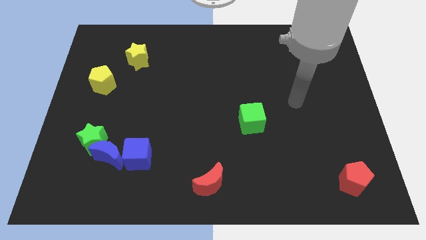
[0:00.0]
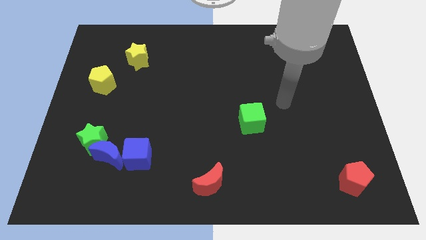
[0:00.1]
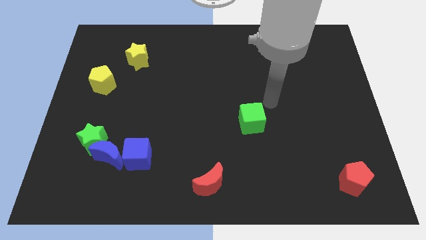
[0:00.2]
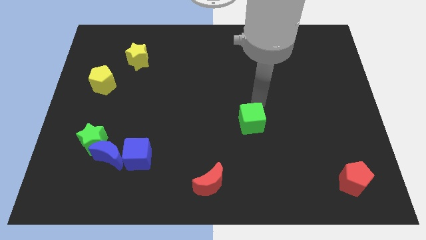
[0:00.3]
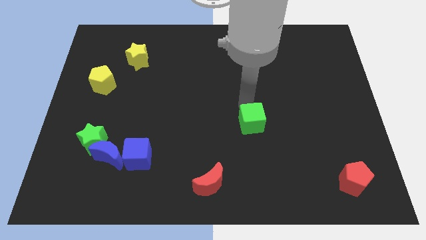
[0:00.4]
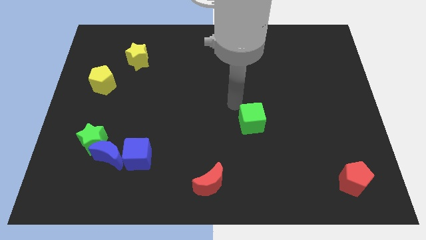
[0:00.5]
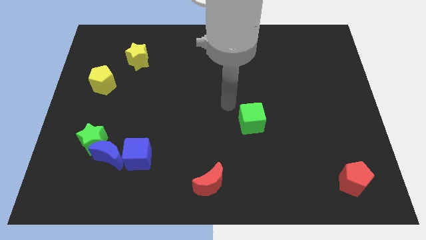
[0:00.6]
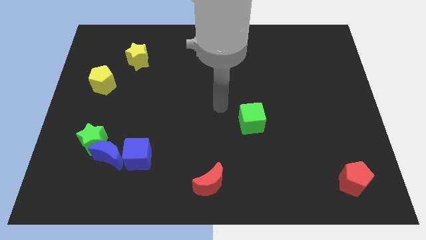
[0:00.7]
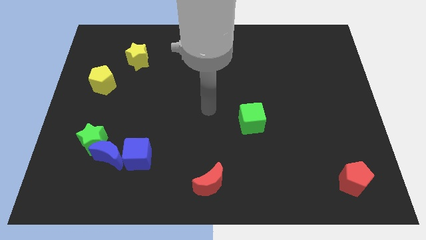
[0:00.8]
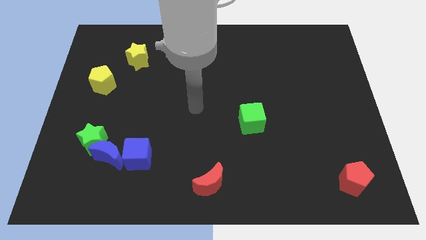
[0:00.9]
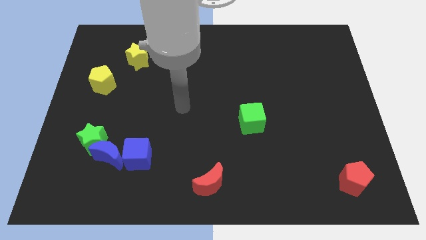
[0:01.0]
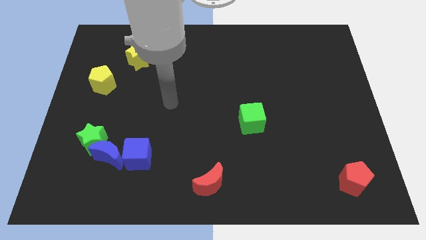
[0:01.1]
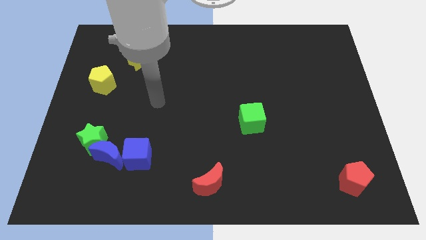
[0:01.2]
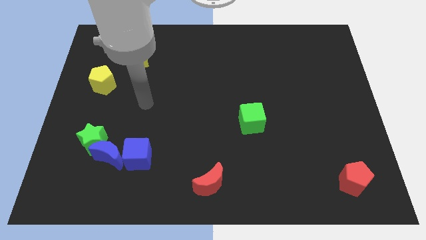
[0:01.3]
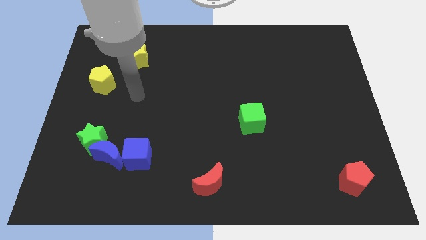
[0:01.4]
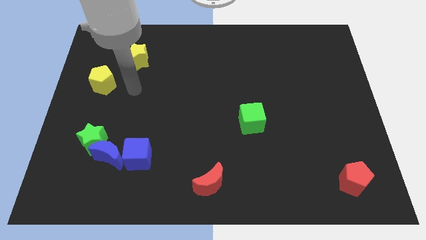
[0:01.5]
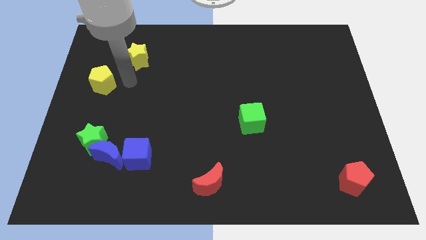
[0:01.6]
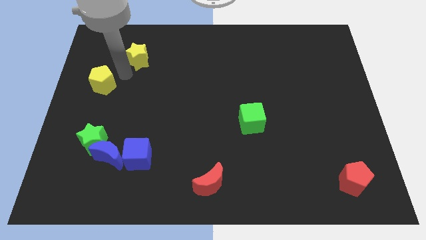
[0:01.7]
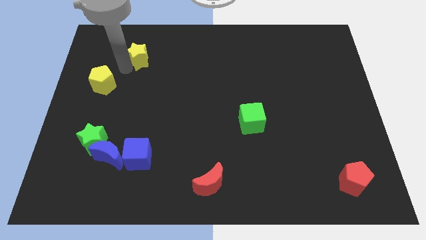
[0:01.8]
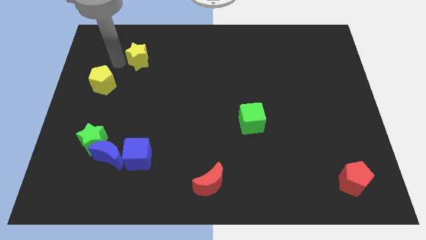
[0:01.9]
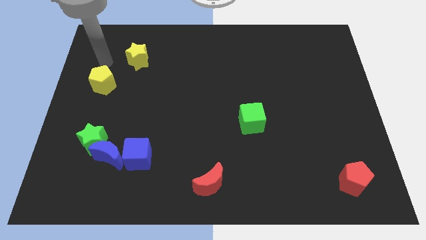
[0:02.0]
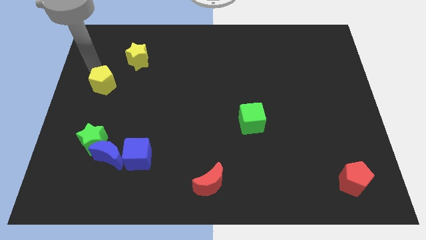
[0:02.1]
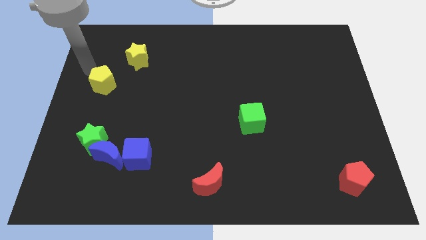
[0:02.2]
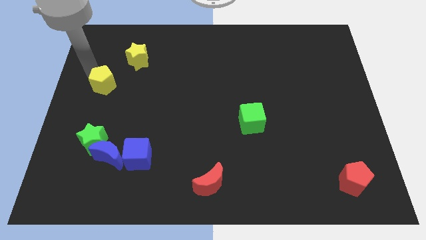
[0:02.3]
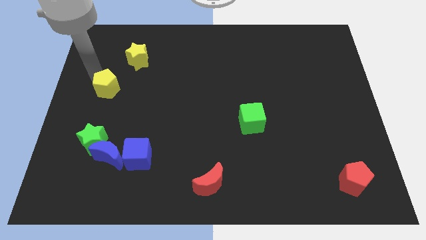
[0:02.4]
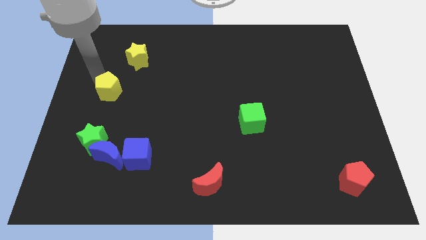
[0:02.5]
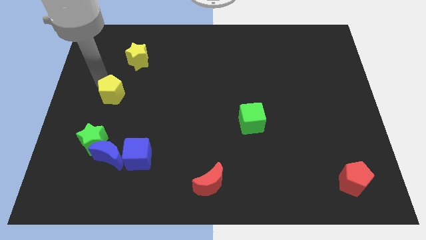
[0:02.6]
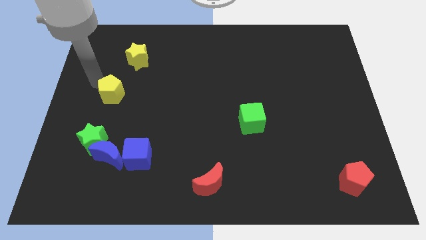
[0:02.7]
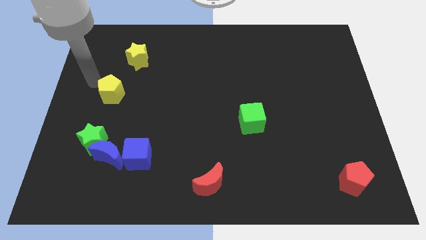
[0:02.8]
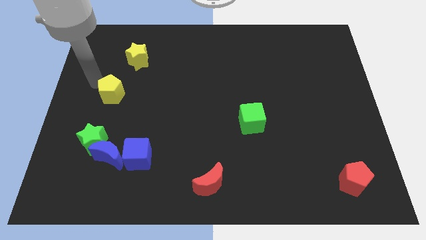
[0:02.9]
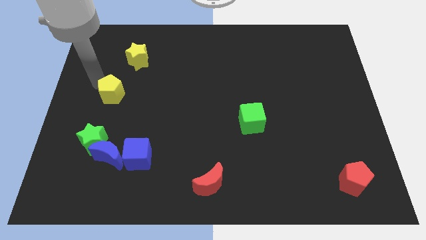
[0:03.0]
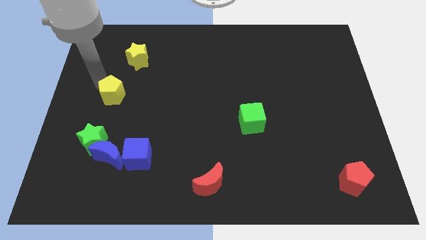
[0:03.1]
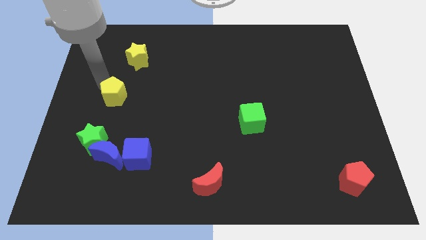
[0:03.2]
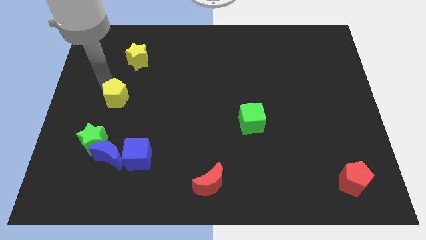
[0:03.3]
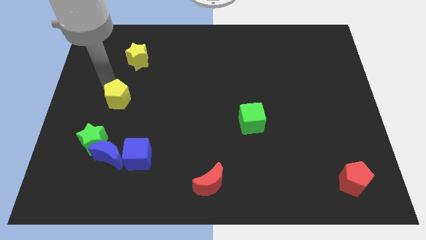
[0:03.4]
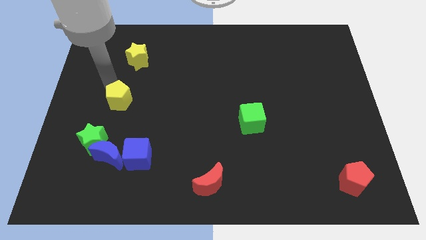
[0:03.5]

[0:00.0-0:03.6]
move the yellow pentagon somewhat downwards and right

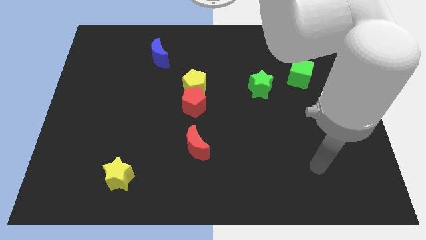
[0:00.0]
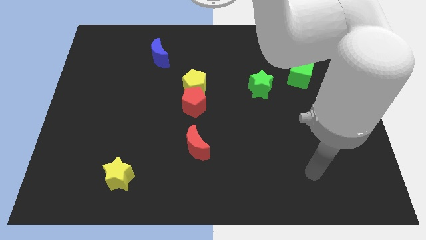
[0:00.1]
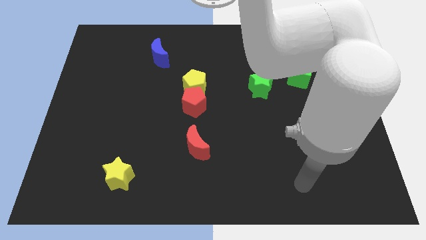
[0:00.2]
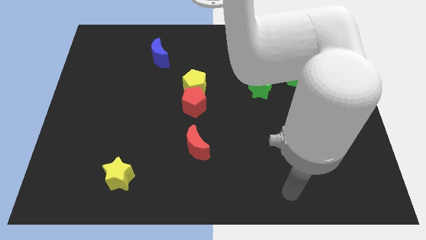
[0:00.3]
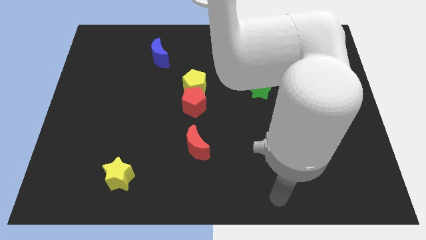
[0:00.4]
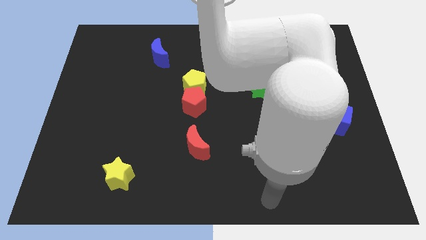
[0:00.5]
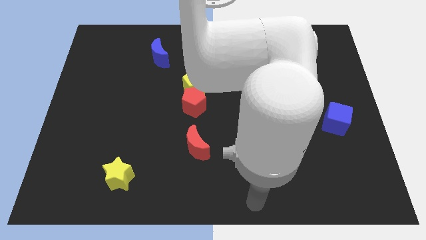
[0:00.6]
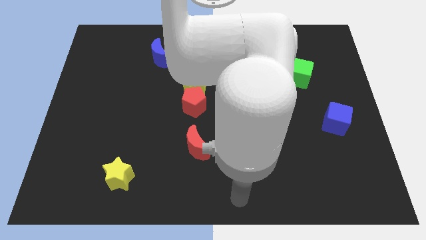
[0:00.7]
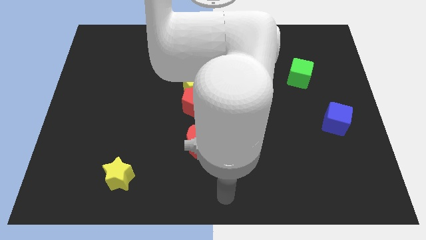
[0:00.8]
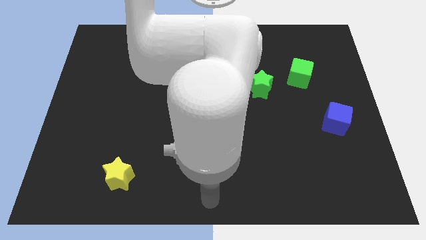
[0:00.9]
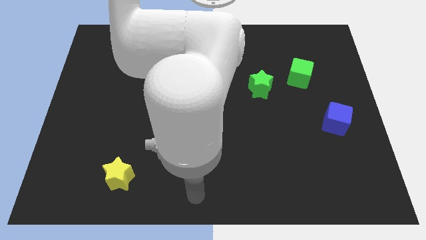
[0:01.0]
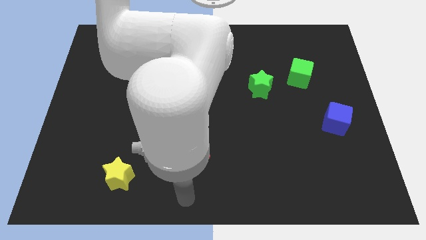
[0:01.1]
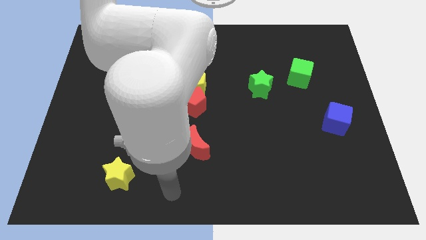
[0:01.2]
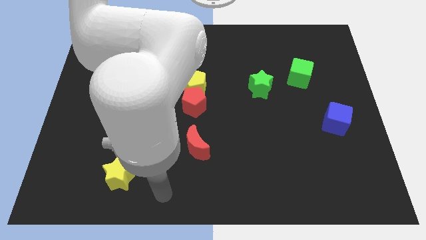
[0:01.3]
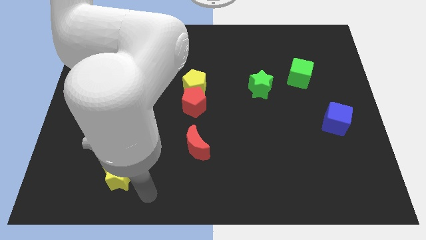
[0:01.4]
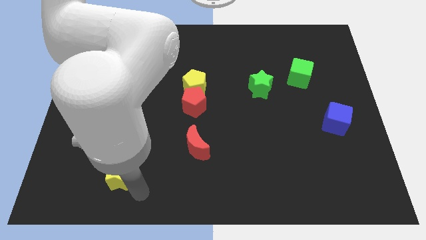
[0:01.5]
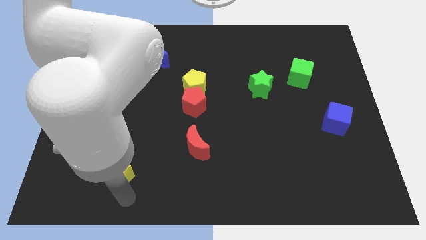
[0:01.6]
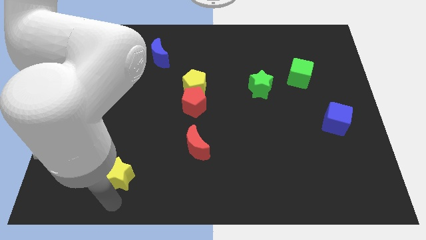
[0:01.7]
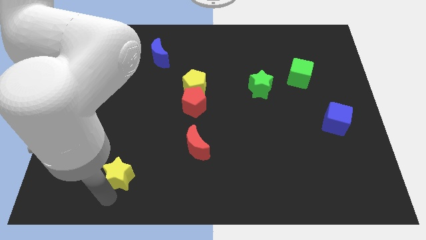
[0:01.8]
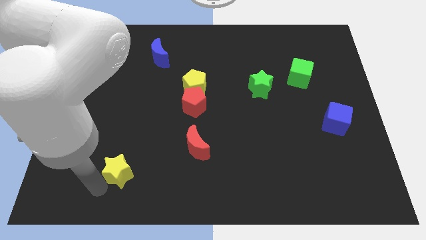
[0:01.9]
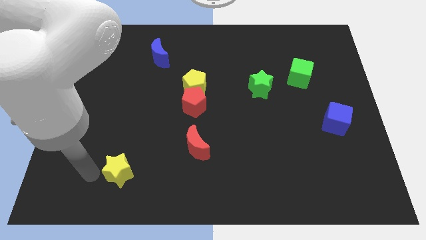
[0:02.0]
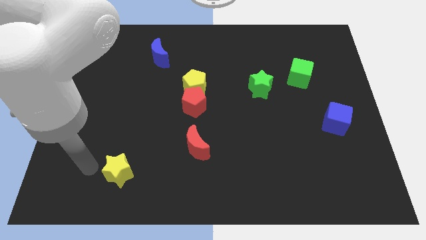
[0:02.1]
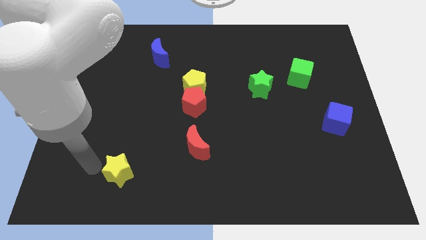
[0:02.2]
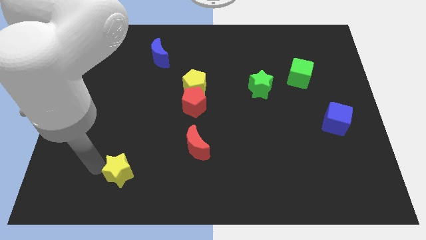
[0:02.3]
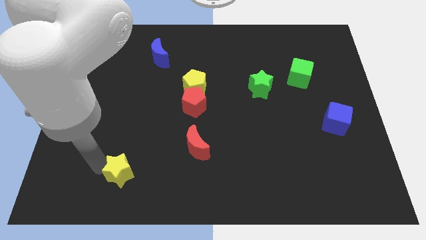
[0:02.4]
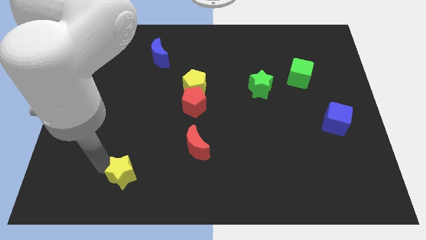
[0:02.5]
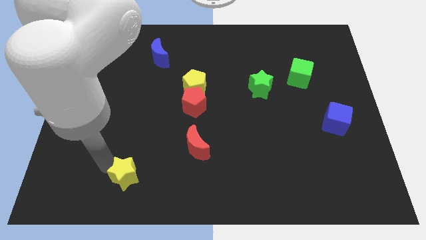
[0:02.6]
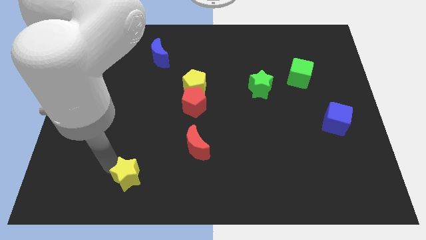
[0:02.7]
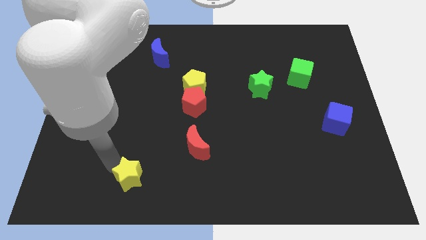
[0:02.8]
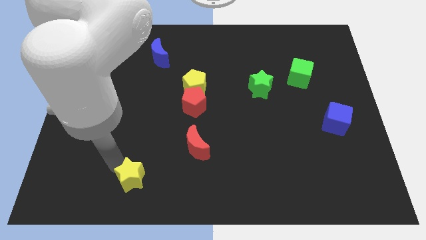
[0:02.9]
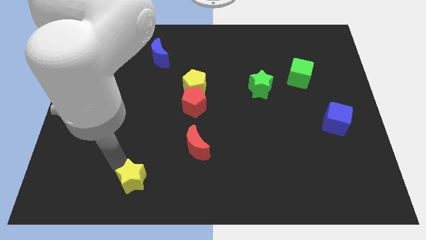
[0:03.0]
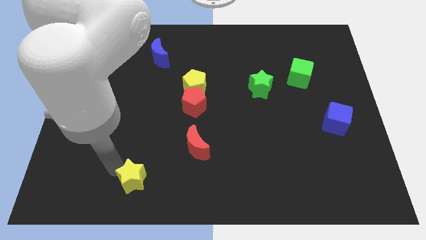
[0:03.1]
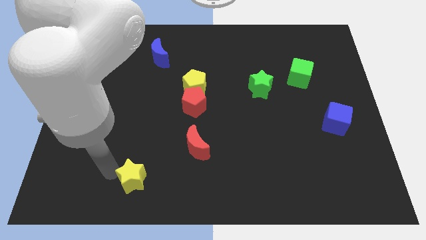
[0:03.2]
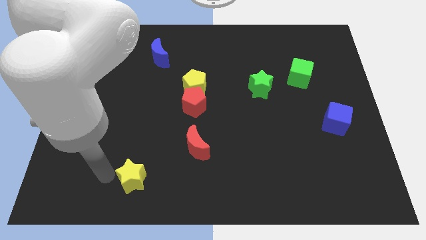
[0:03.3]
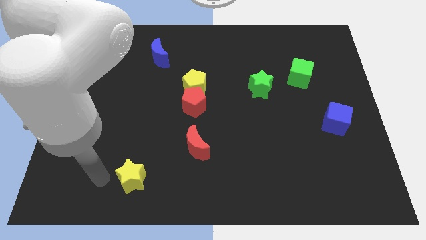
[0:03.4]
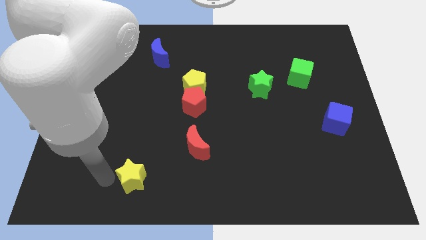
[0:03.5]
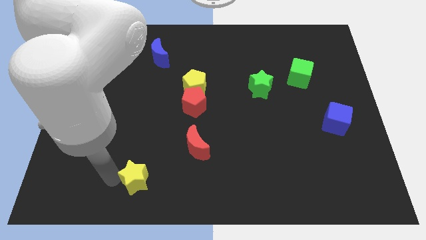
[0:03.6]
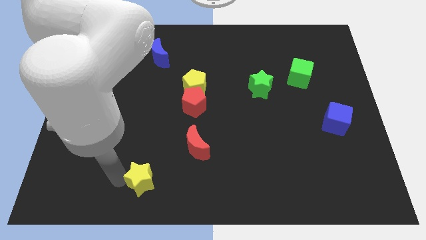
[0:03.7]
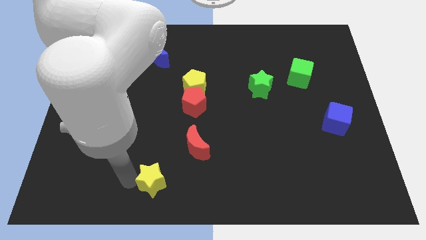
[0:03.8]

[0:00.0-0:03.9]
slide the yellow star right somewhat

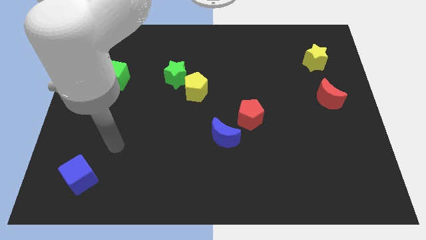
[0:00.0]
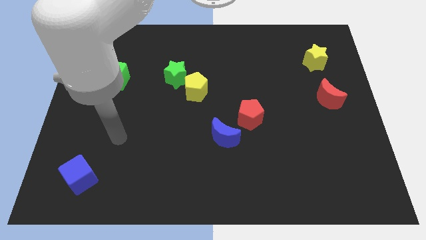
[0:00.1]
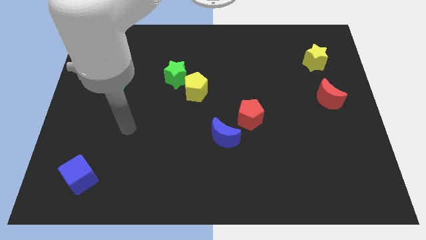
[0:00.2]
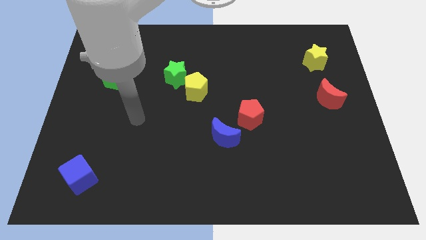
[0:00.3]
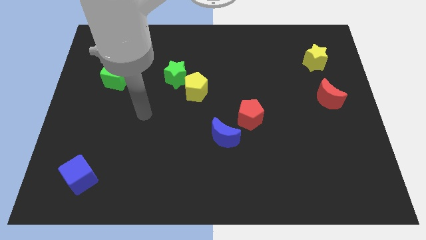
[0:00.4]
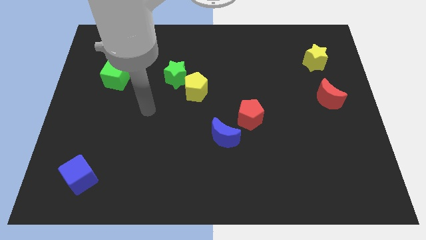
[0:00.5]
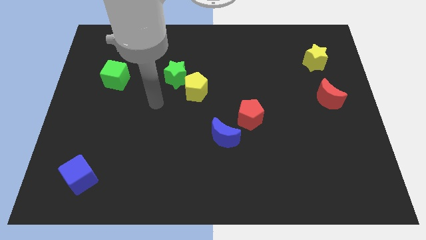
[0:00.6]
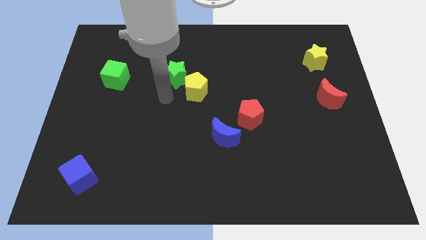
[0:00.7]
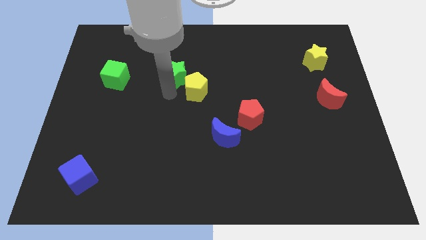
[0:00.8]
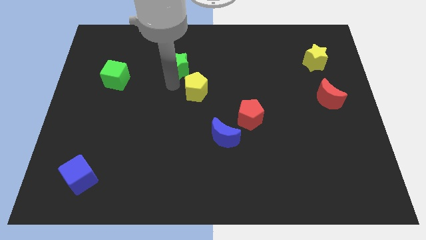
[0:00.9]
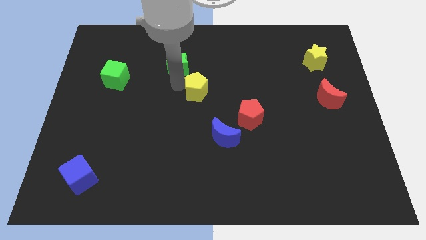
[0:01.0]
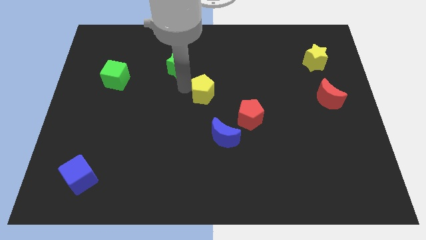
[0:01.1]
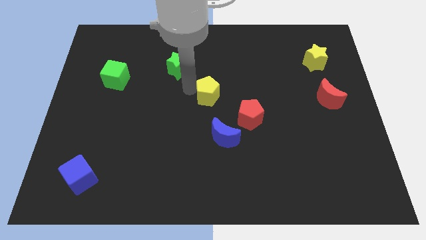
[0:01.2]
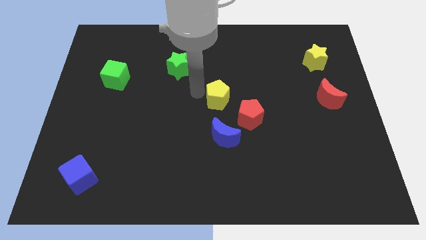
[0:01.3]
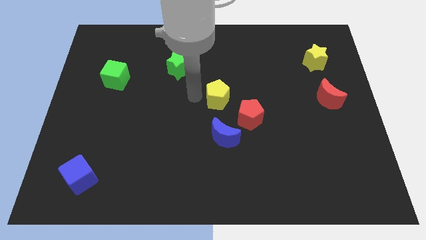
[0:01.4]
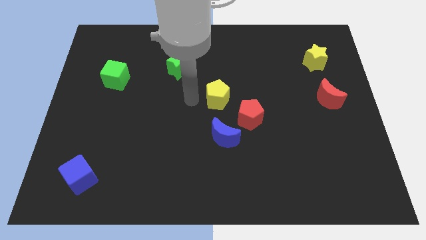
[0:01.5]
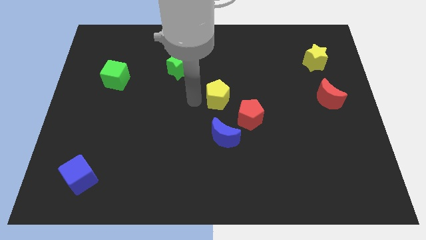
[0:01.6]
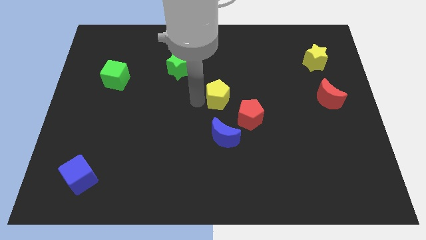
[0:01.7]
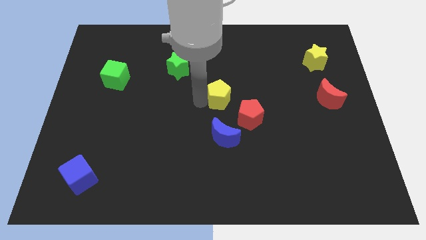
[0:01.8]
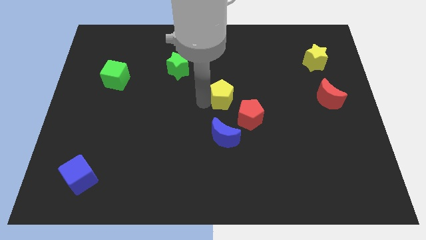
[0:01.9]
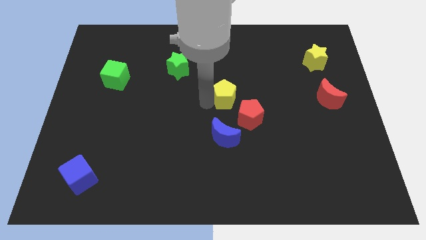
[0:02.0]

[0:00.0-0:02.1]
move the yellow pentagon a little bit right
